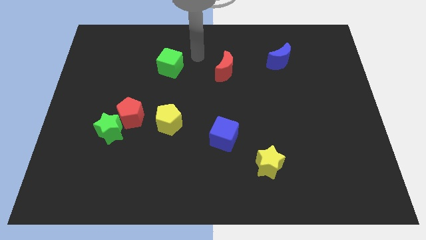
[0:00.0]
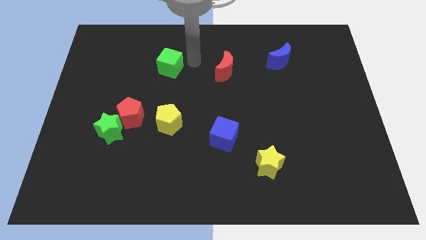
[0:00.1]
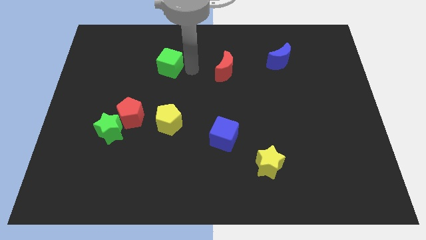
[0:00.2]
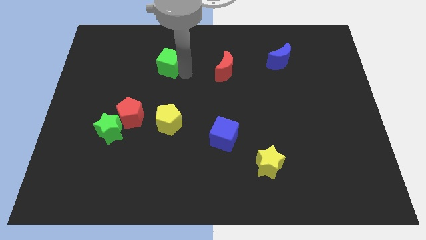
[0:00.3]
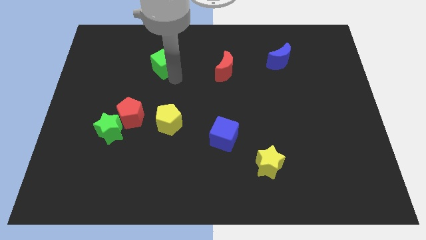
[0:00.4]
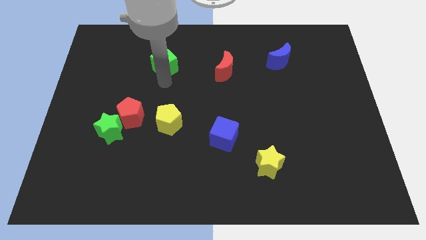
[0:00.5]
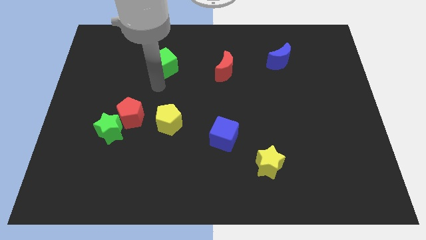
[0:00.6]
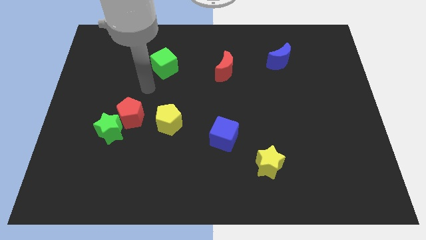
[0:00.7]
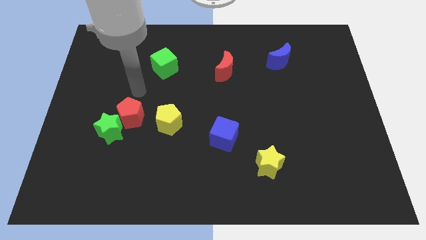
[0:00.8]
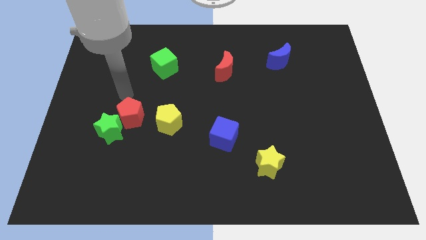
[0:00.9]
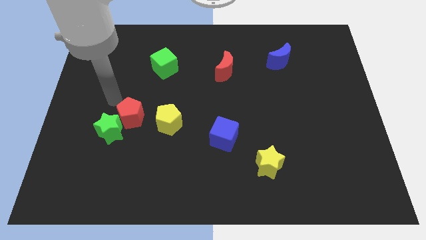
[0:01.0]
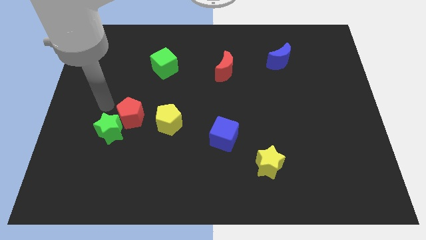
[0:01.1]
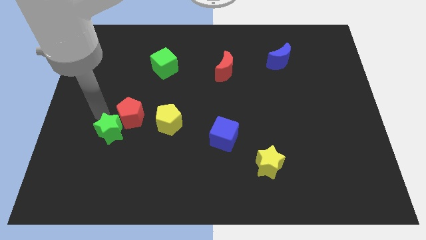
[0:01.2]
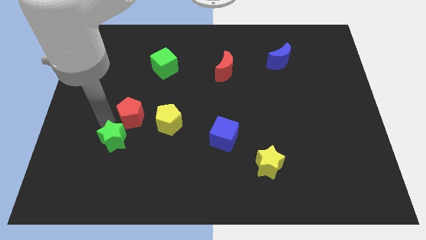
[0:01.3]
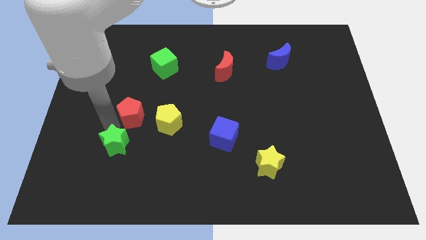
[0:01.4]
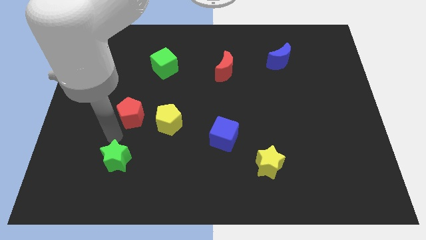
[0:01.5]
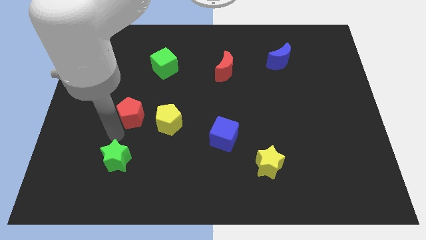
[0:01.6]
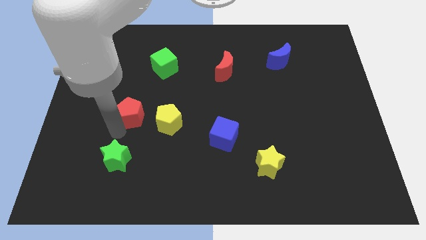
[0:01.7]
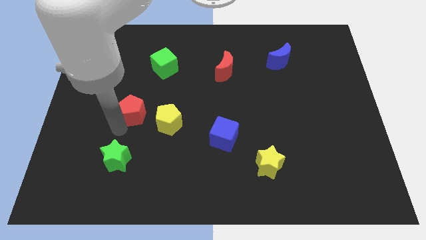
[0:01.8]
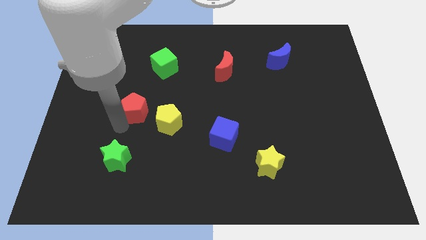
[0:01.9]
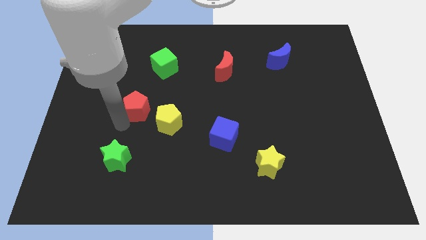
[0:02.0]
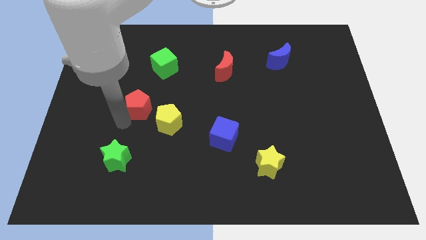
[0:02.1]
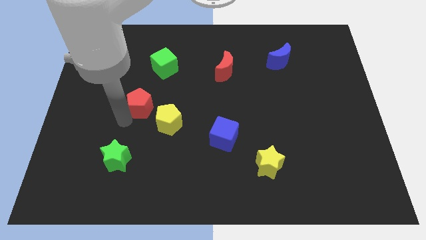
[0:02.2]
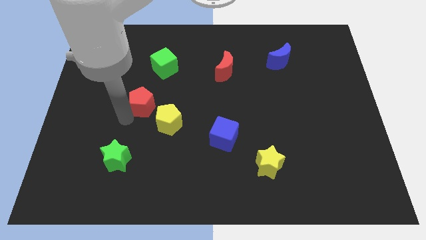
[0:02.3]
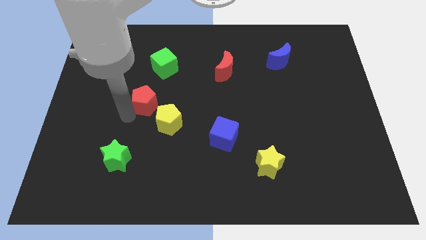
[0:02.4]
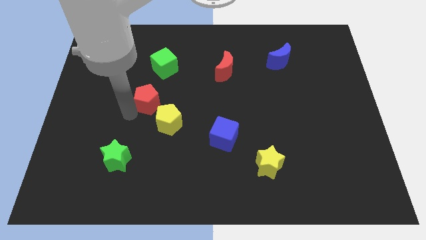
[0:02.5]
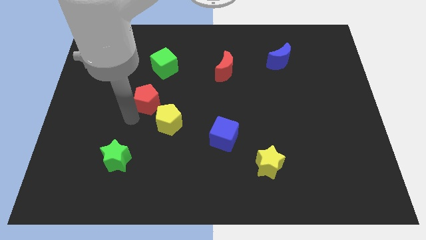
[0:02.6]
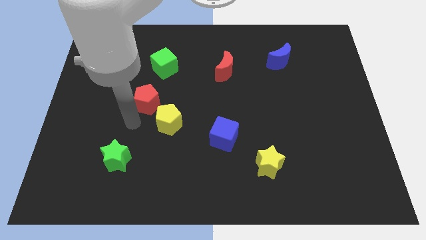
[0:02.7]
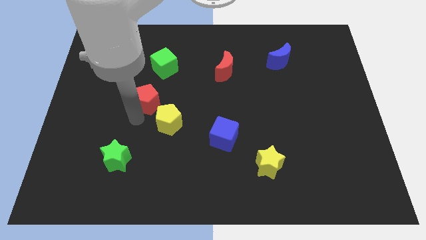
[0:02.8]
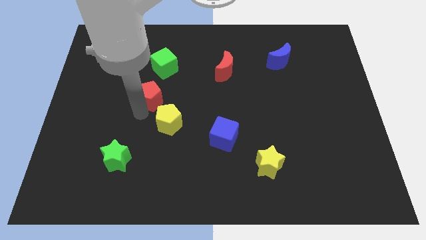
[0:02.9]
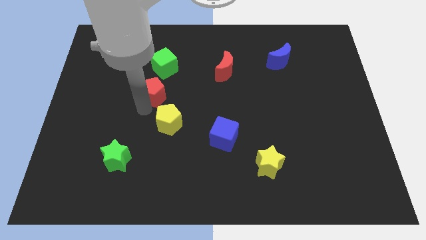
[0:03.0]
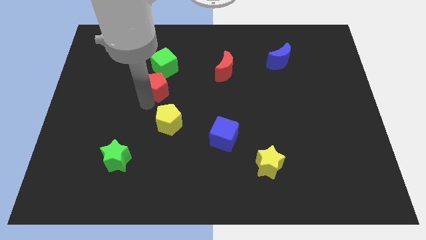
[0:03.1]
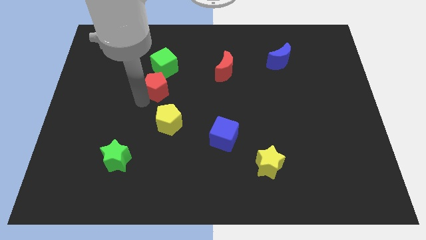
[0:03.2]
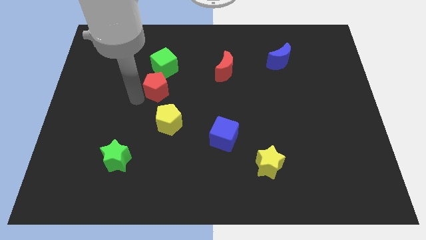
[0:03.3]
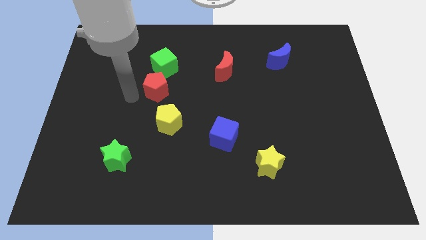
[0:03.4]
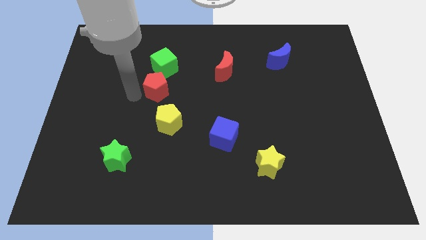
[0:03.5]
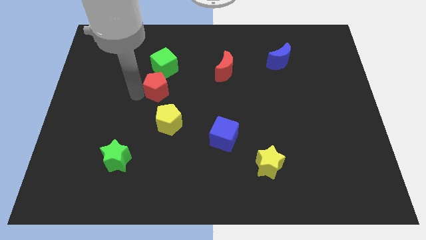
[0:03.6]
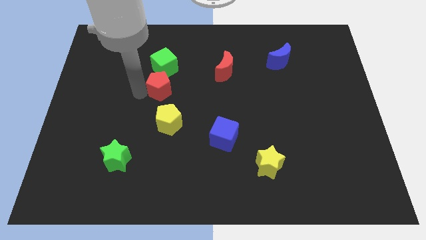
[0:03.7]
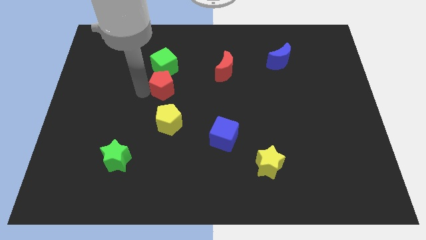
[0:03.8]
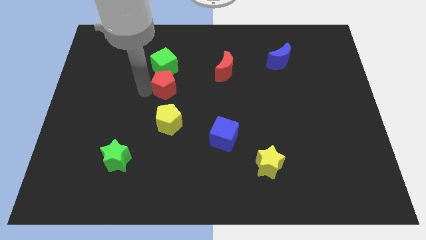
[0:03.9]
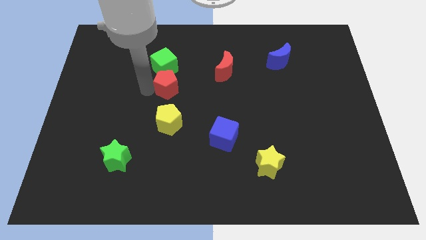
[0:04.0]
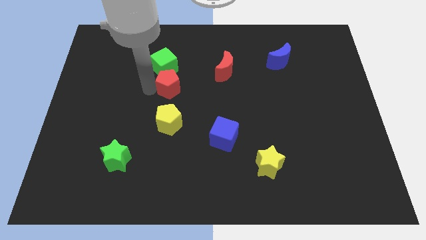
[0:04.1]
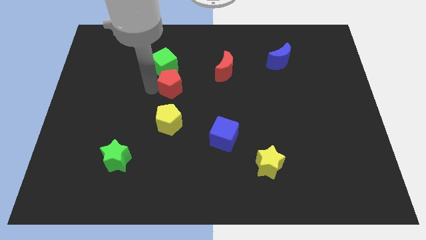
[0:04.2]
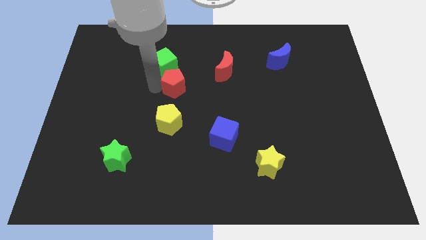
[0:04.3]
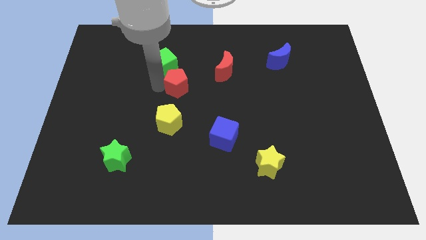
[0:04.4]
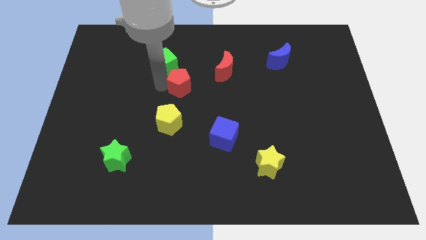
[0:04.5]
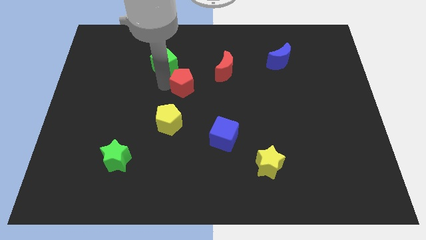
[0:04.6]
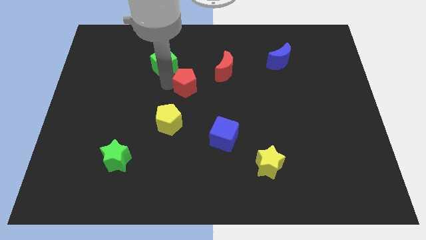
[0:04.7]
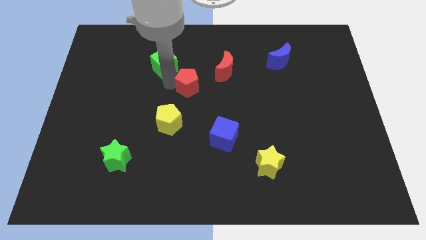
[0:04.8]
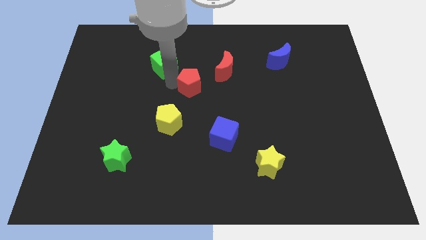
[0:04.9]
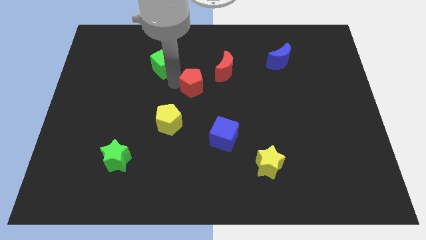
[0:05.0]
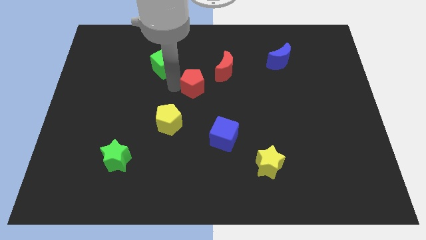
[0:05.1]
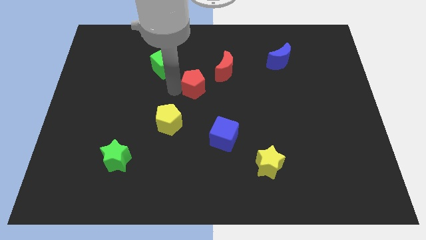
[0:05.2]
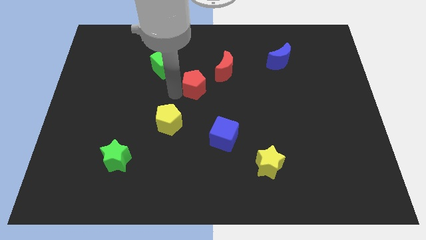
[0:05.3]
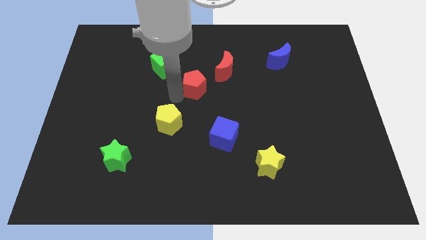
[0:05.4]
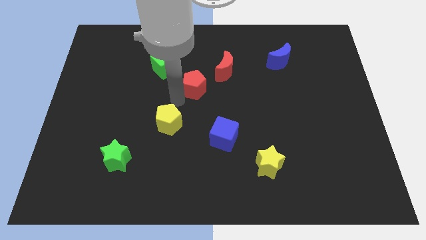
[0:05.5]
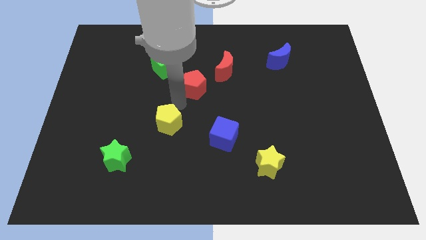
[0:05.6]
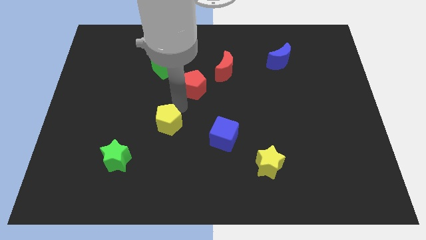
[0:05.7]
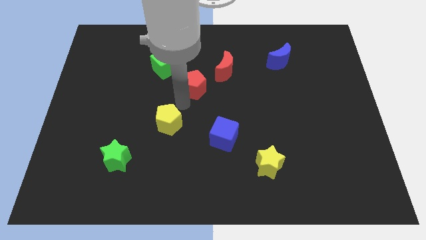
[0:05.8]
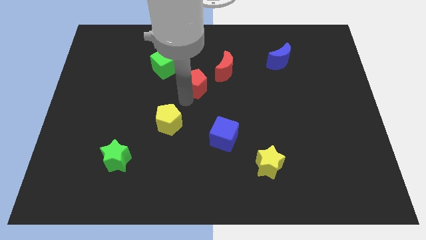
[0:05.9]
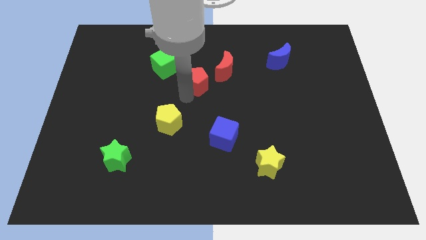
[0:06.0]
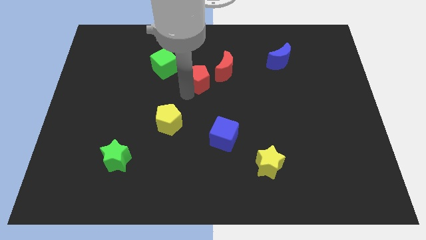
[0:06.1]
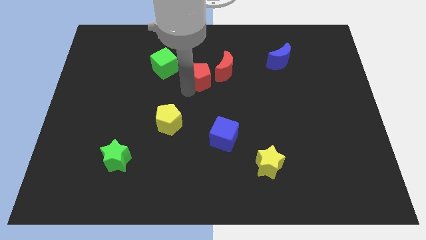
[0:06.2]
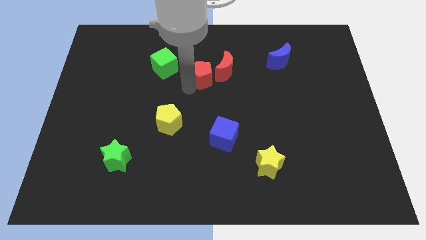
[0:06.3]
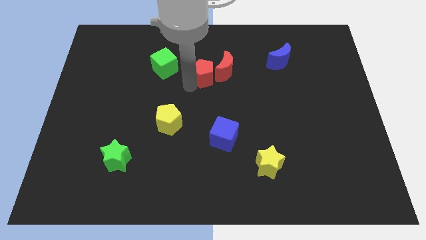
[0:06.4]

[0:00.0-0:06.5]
put the red pentagon close to the red moon

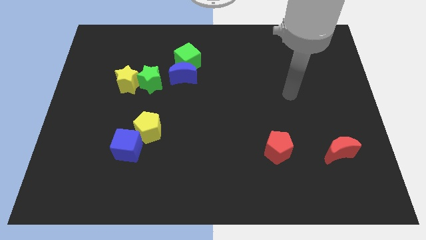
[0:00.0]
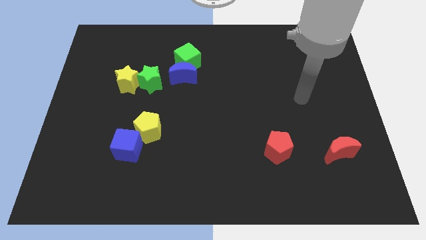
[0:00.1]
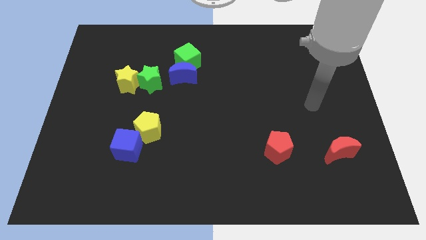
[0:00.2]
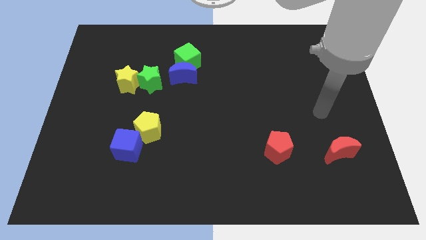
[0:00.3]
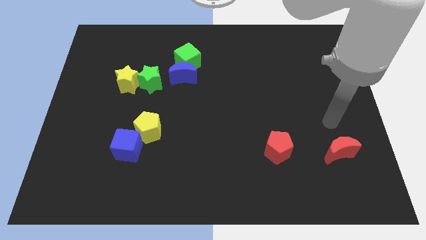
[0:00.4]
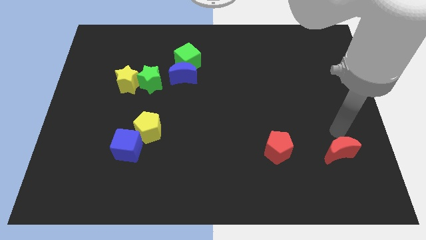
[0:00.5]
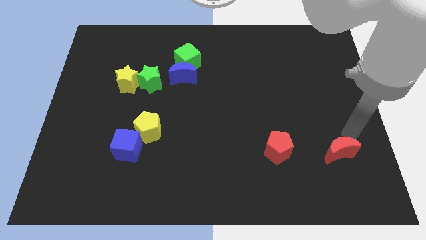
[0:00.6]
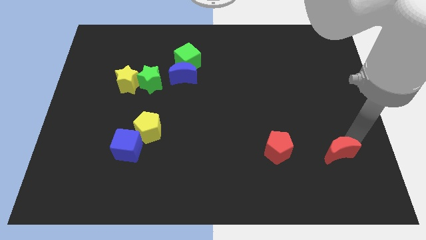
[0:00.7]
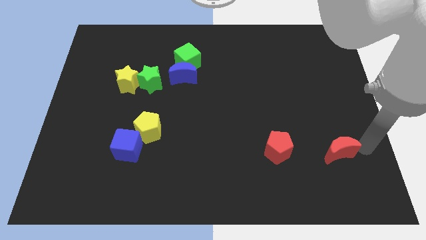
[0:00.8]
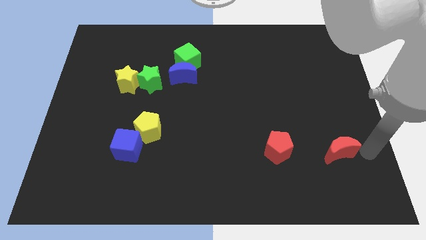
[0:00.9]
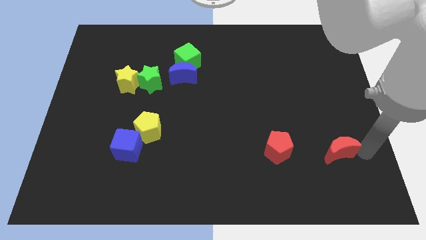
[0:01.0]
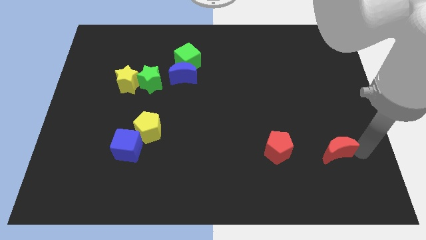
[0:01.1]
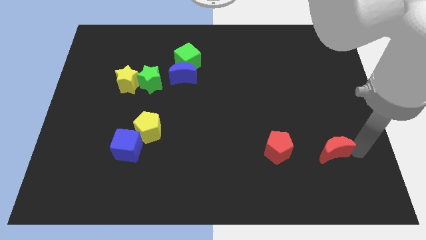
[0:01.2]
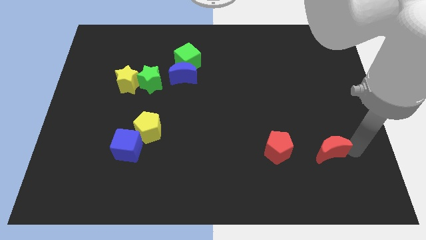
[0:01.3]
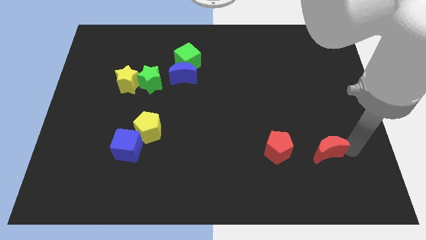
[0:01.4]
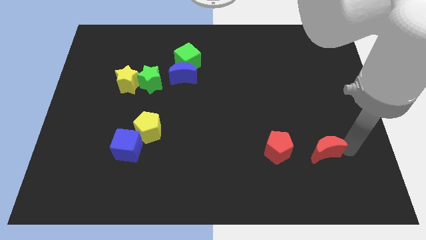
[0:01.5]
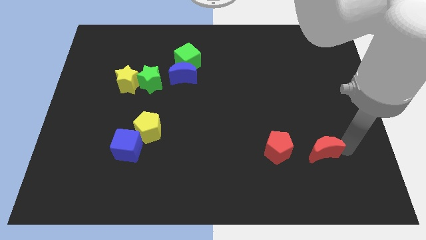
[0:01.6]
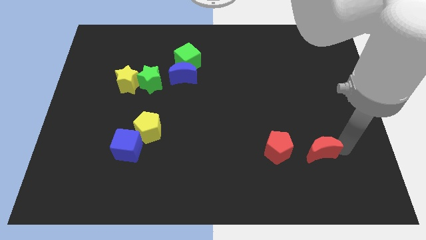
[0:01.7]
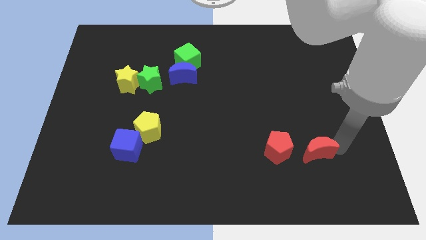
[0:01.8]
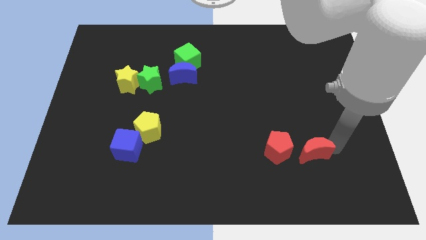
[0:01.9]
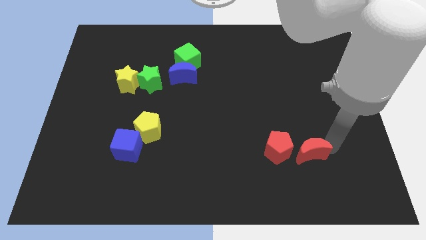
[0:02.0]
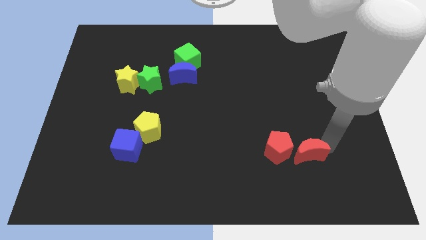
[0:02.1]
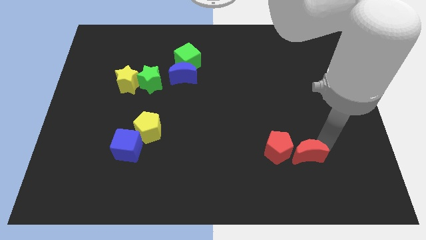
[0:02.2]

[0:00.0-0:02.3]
push the red moon to the red pentagon
